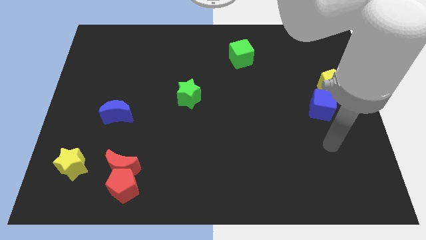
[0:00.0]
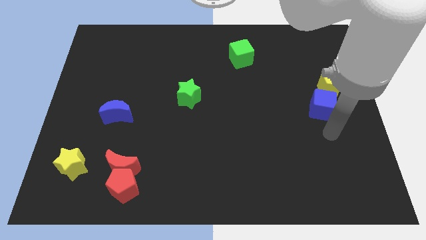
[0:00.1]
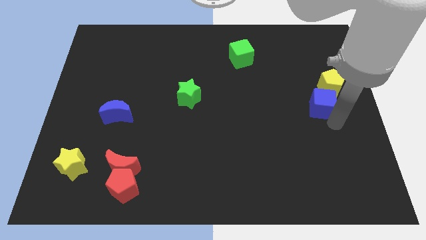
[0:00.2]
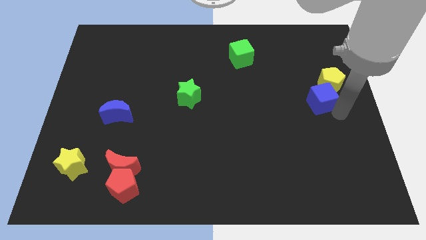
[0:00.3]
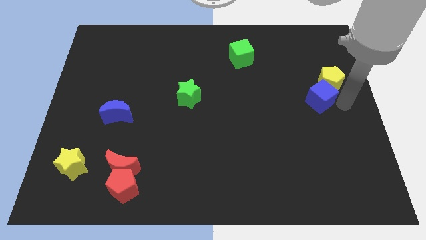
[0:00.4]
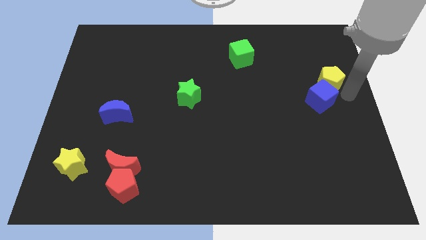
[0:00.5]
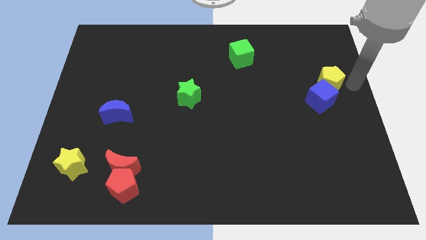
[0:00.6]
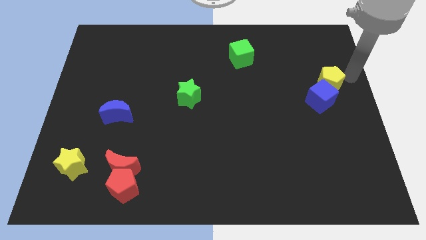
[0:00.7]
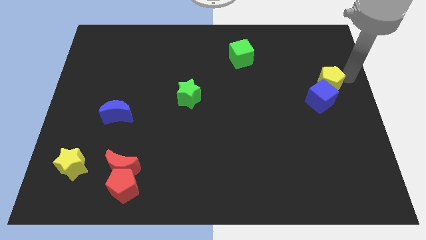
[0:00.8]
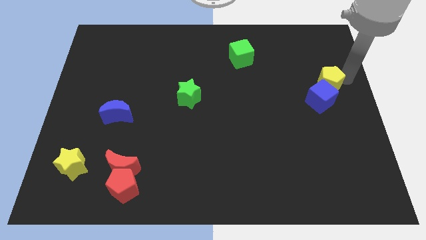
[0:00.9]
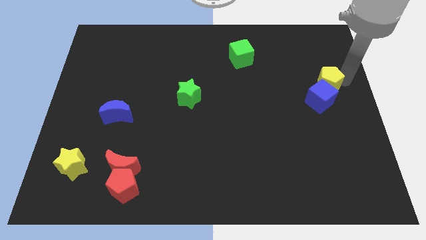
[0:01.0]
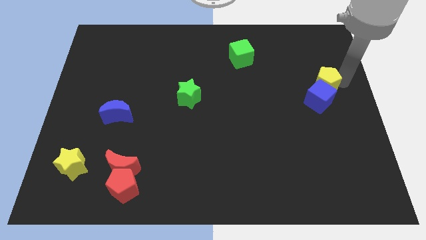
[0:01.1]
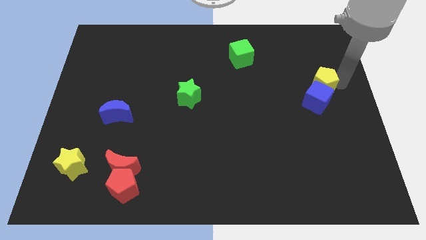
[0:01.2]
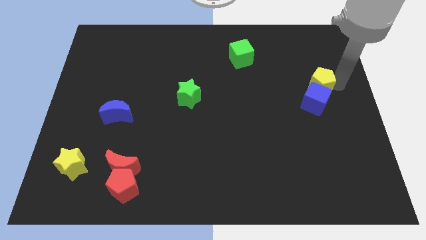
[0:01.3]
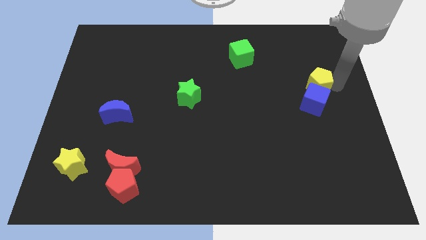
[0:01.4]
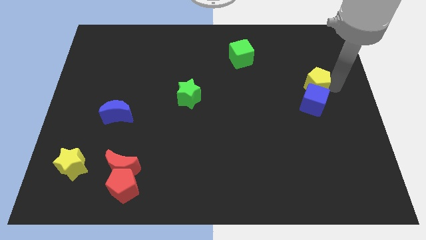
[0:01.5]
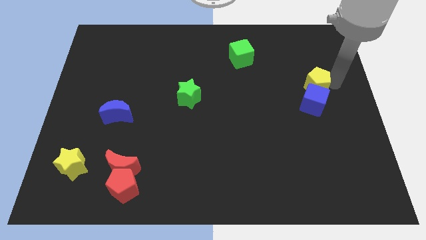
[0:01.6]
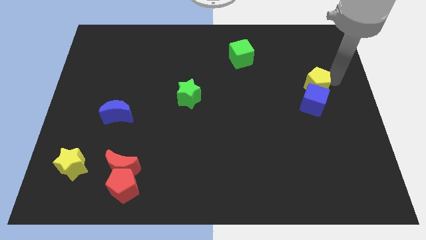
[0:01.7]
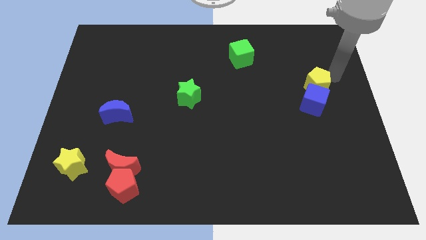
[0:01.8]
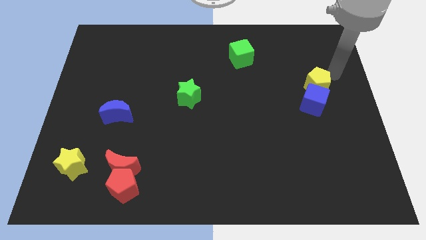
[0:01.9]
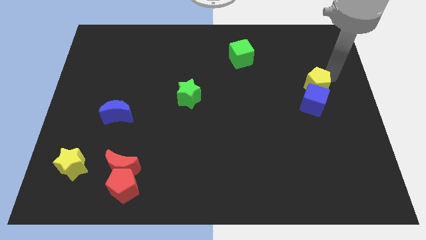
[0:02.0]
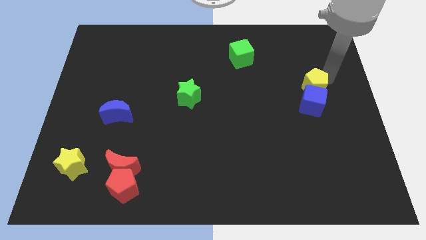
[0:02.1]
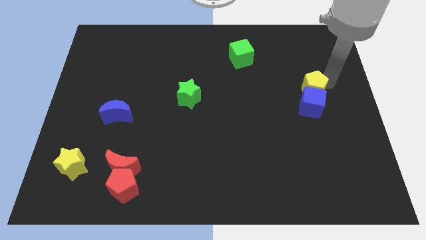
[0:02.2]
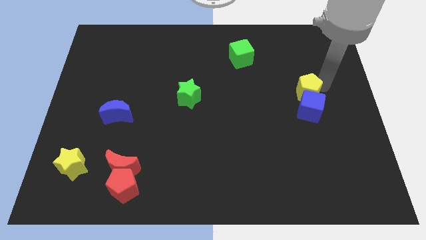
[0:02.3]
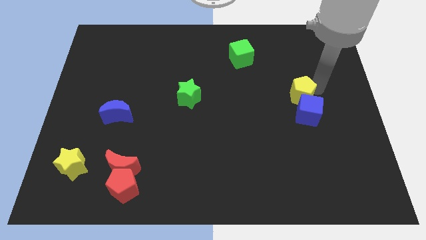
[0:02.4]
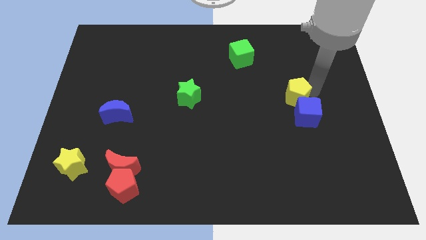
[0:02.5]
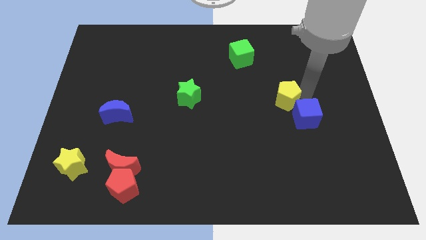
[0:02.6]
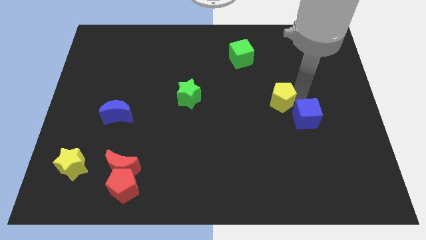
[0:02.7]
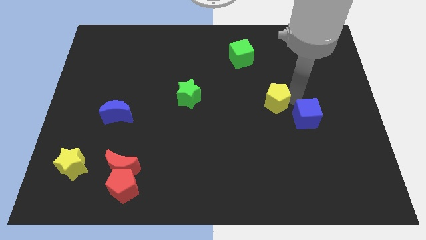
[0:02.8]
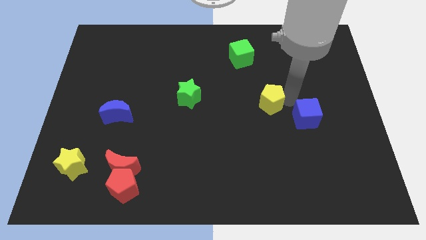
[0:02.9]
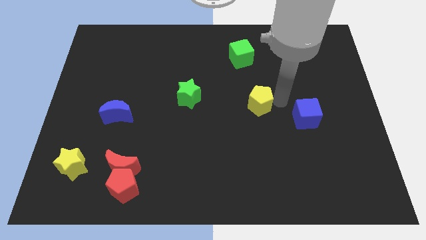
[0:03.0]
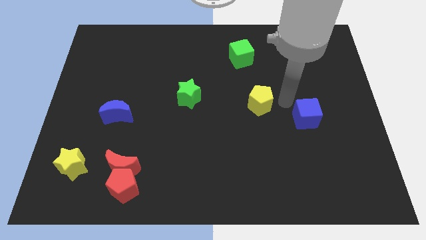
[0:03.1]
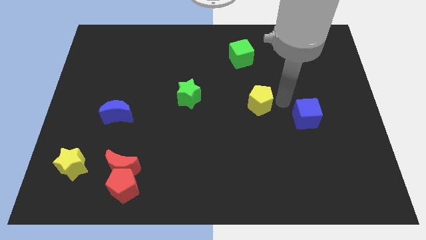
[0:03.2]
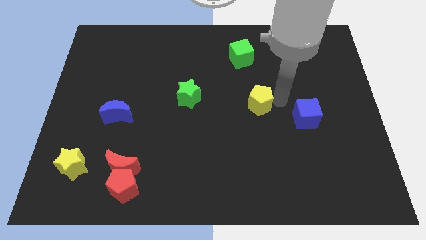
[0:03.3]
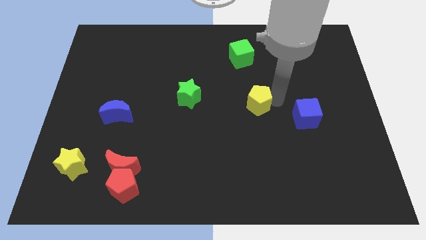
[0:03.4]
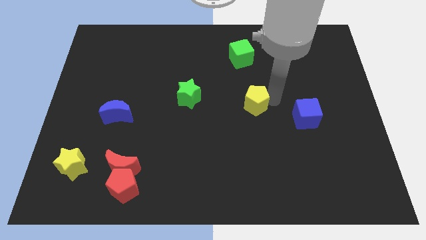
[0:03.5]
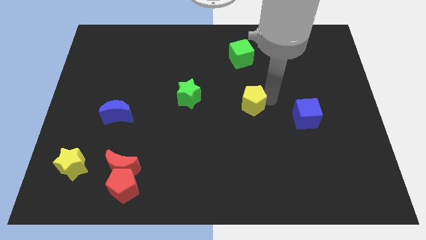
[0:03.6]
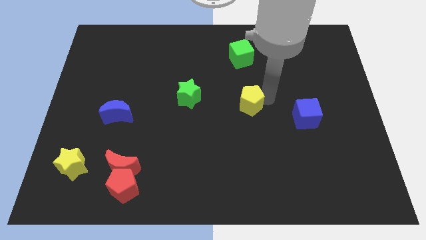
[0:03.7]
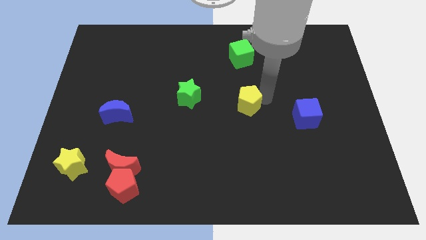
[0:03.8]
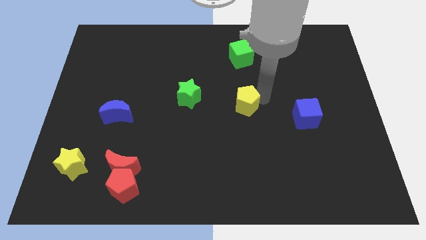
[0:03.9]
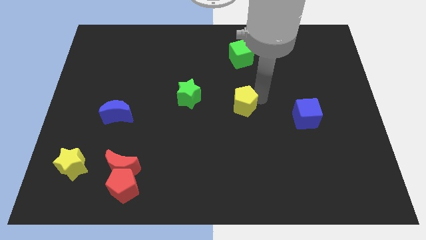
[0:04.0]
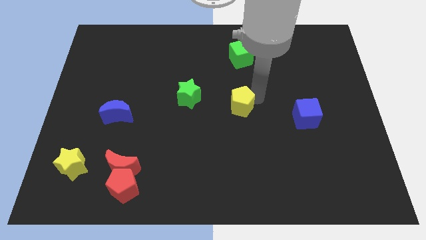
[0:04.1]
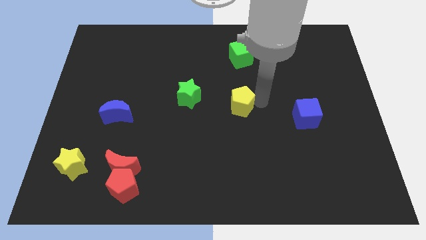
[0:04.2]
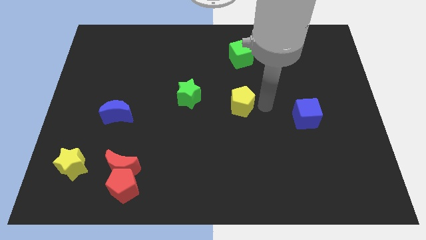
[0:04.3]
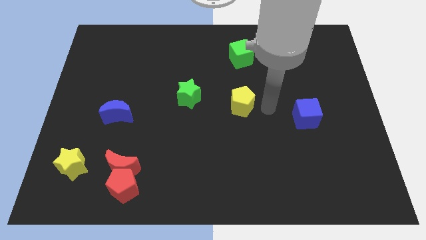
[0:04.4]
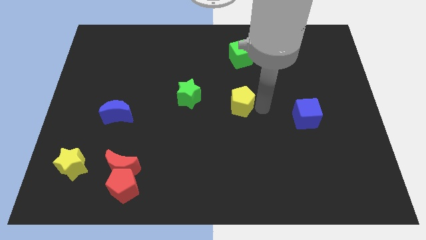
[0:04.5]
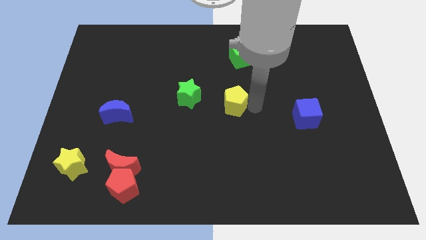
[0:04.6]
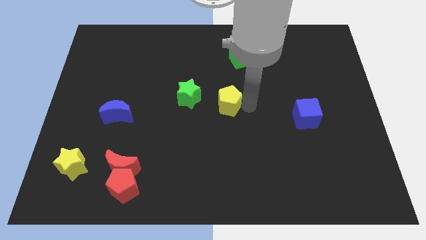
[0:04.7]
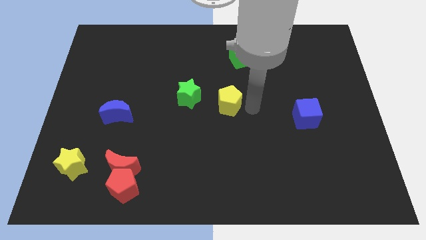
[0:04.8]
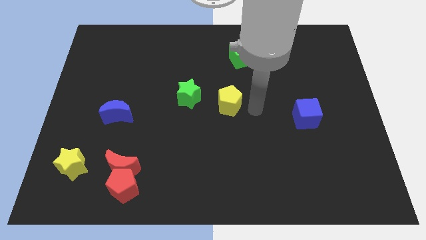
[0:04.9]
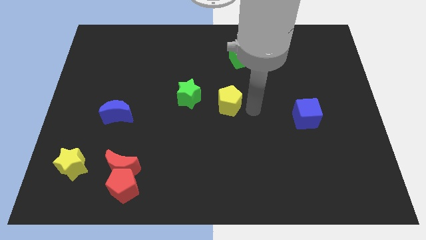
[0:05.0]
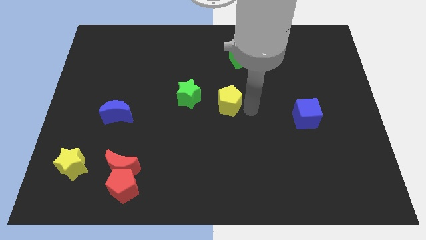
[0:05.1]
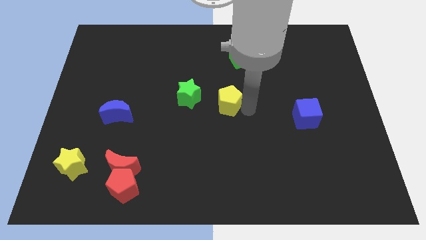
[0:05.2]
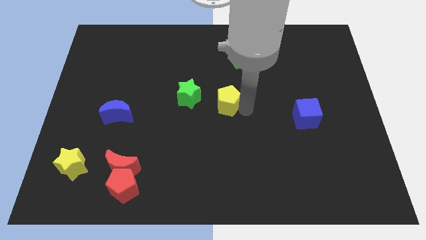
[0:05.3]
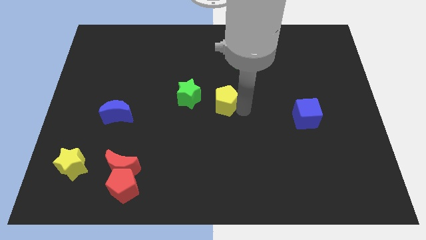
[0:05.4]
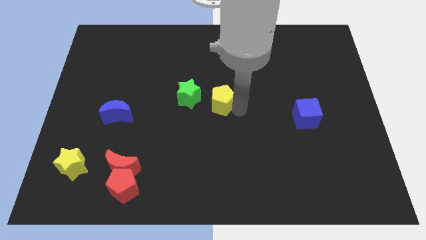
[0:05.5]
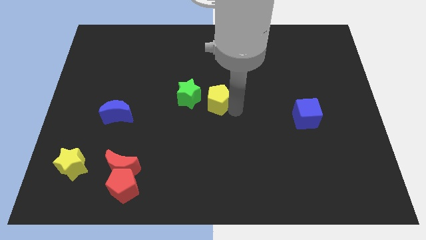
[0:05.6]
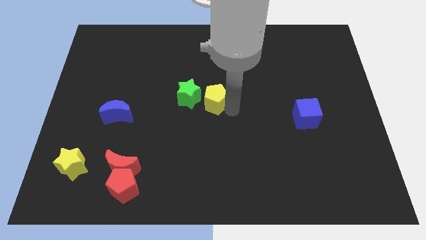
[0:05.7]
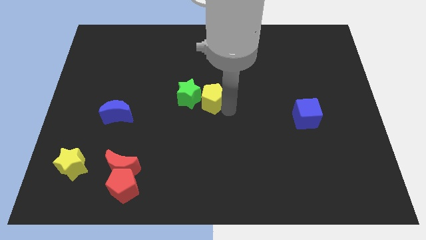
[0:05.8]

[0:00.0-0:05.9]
push the yellow pentagon next to the green star

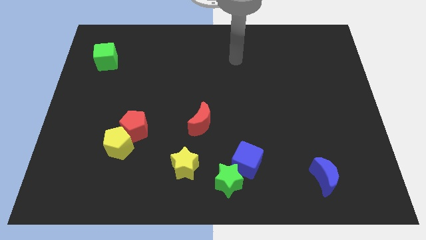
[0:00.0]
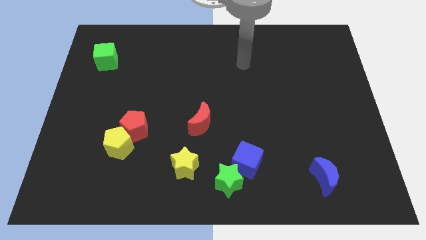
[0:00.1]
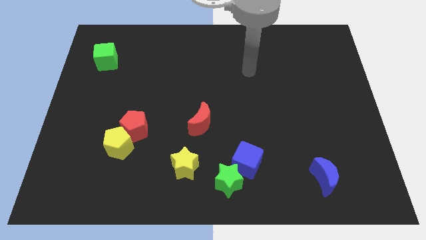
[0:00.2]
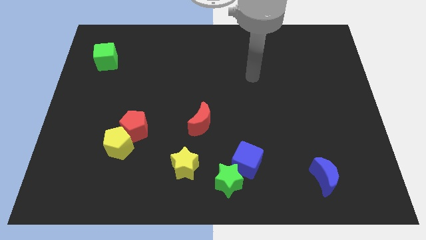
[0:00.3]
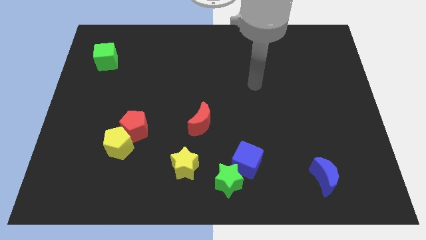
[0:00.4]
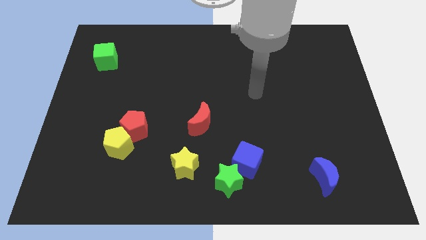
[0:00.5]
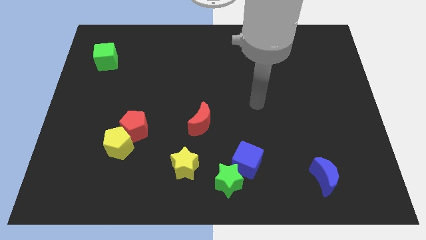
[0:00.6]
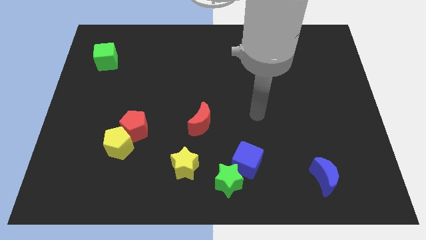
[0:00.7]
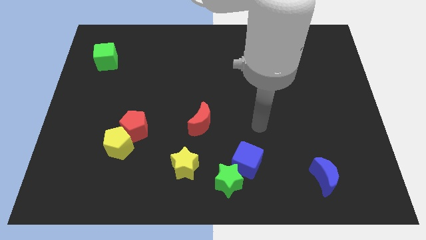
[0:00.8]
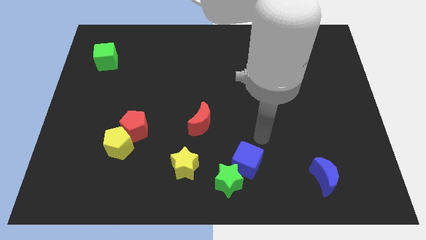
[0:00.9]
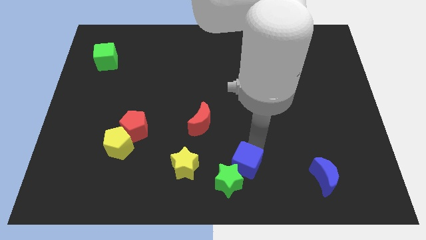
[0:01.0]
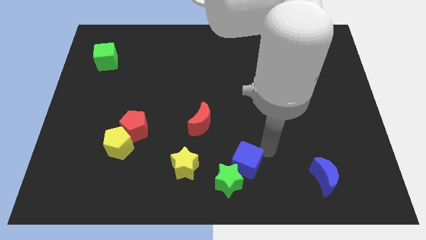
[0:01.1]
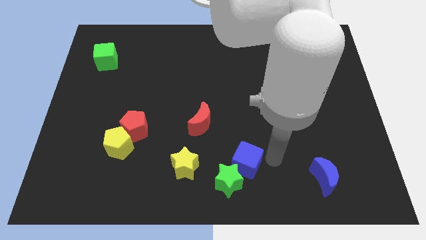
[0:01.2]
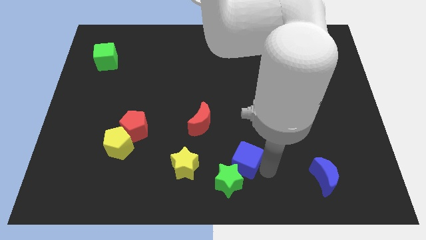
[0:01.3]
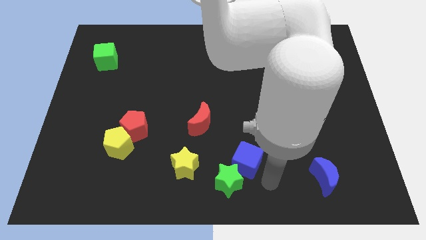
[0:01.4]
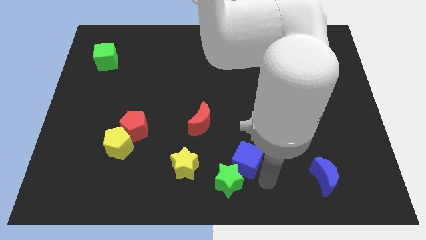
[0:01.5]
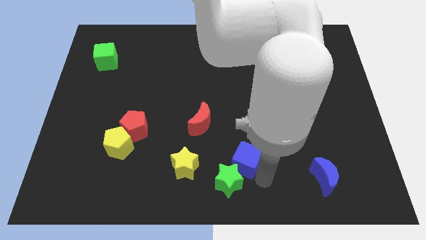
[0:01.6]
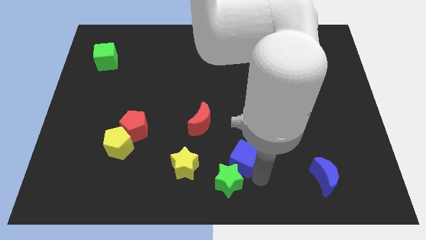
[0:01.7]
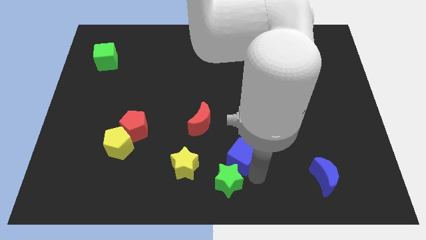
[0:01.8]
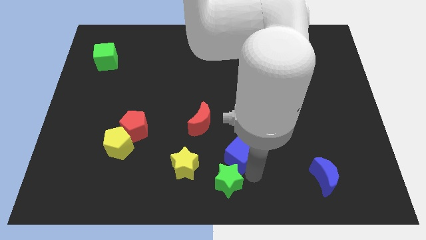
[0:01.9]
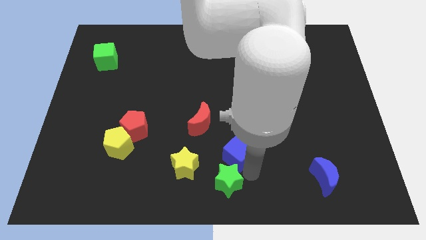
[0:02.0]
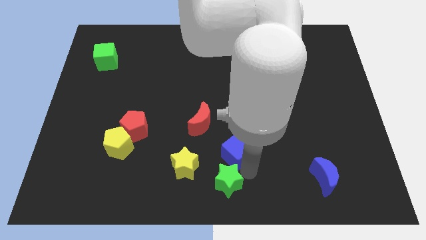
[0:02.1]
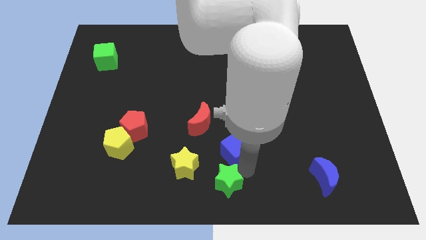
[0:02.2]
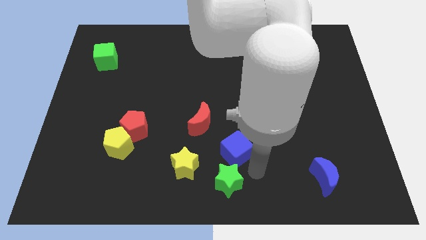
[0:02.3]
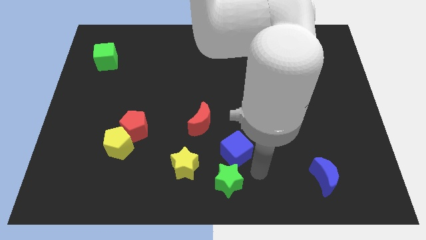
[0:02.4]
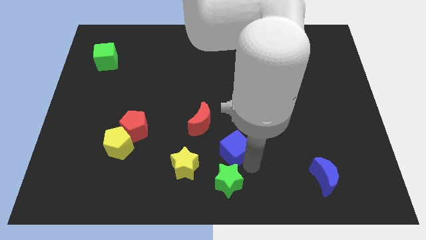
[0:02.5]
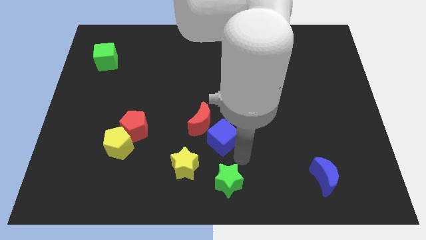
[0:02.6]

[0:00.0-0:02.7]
move the blue cube to the red moon
